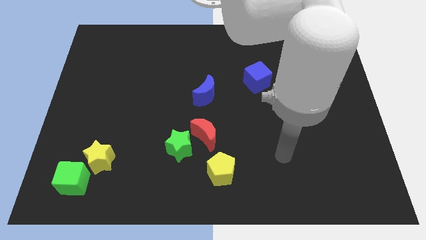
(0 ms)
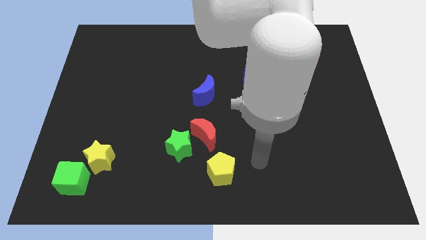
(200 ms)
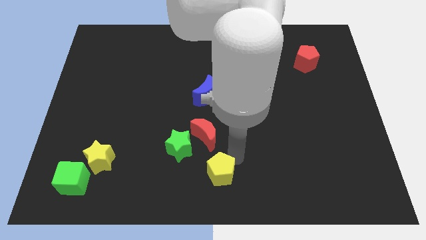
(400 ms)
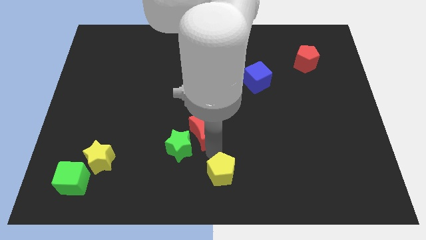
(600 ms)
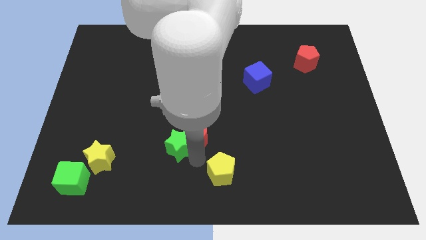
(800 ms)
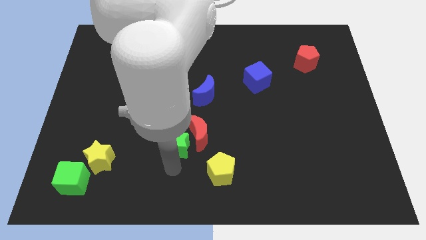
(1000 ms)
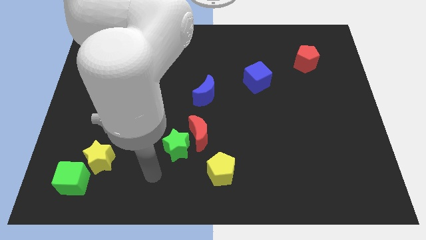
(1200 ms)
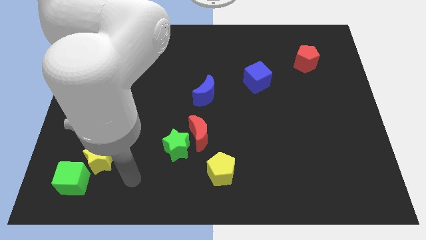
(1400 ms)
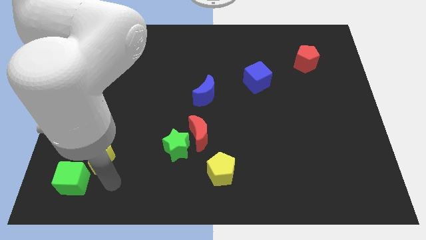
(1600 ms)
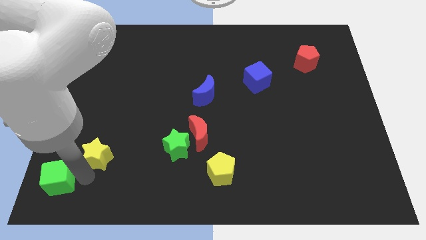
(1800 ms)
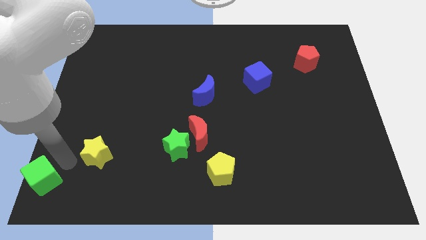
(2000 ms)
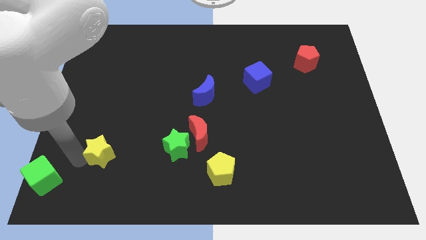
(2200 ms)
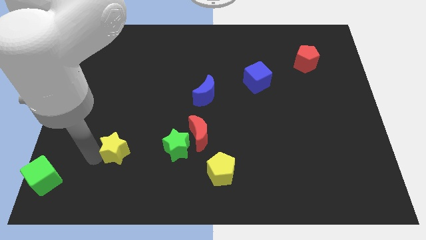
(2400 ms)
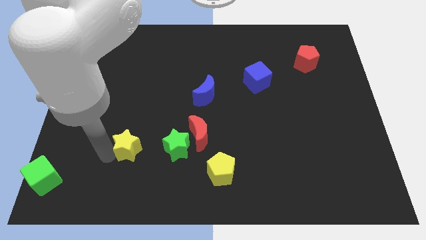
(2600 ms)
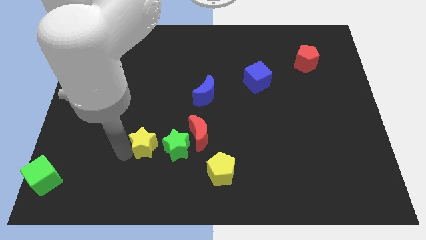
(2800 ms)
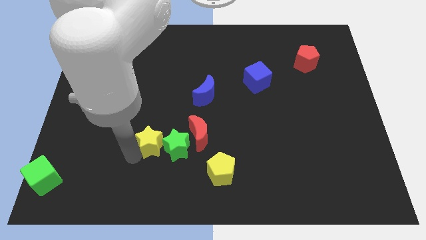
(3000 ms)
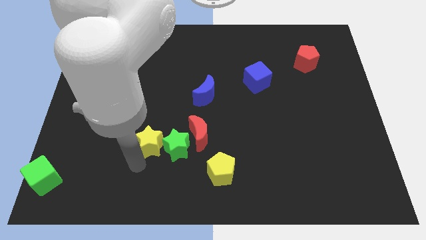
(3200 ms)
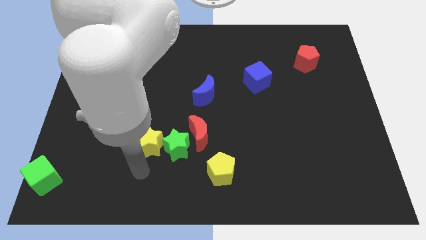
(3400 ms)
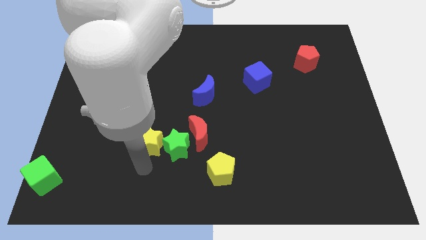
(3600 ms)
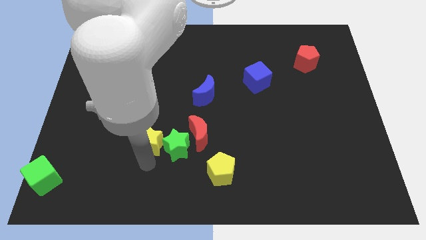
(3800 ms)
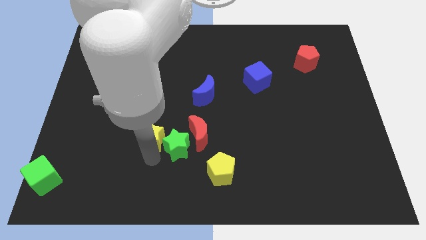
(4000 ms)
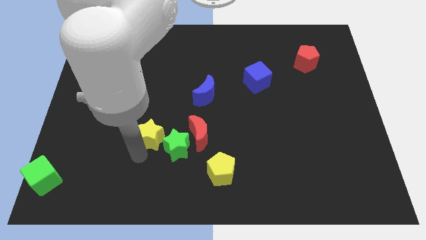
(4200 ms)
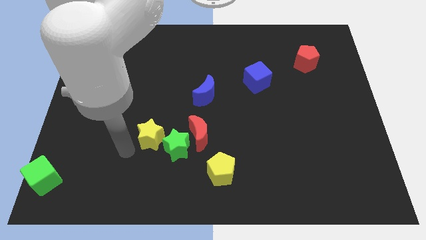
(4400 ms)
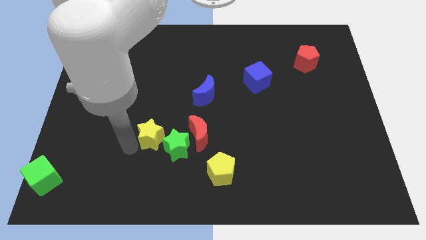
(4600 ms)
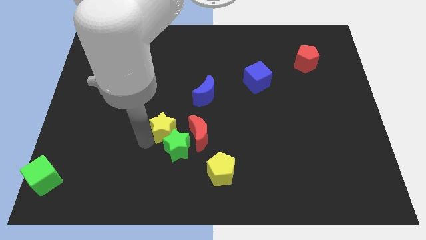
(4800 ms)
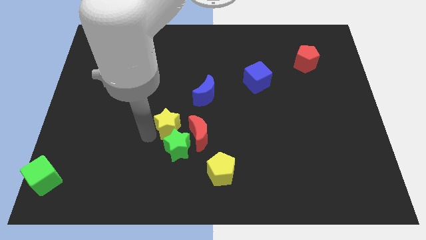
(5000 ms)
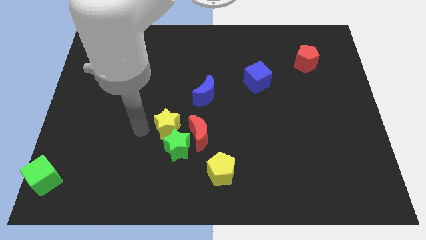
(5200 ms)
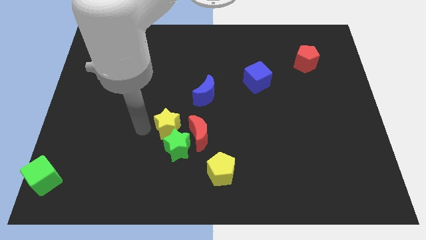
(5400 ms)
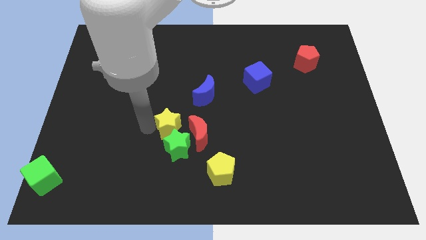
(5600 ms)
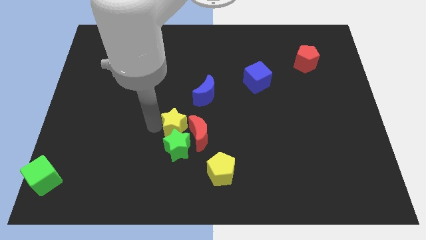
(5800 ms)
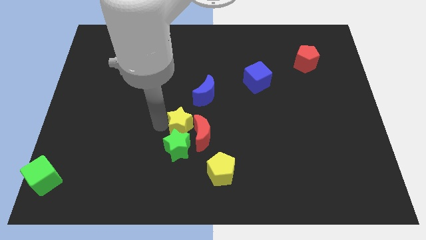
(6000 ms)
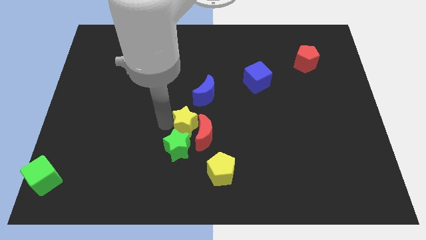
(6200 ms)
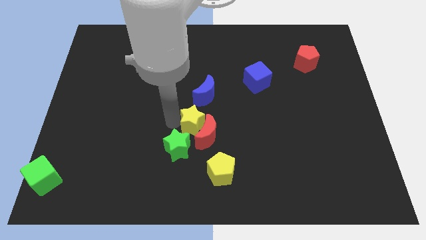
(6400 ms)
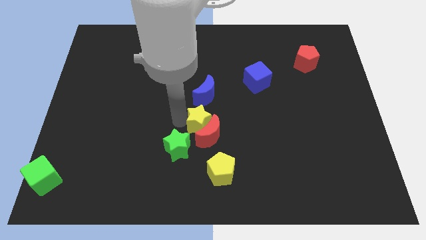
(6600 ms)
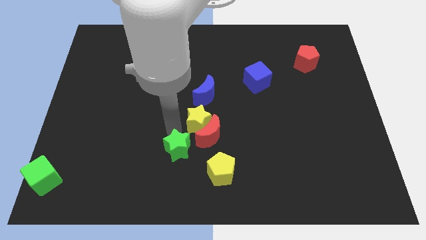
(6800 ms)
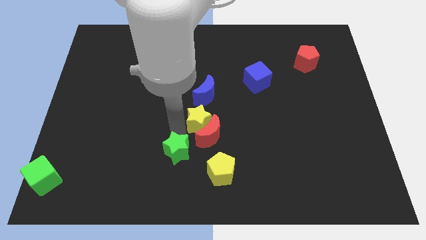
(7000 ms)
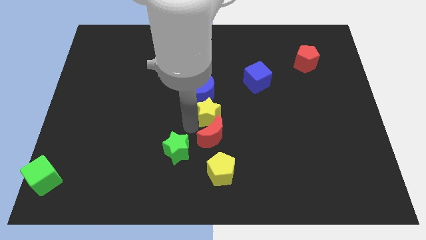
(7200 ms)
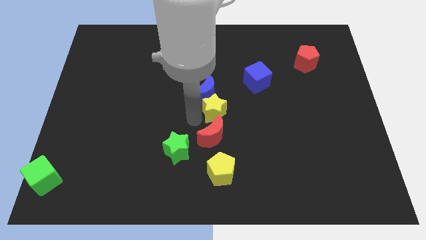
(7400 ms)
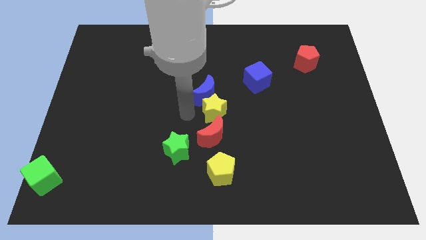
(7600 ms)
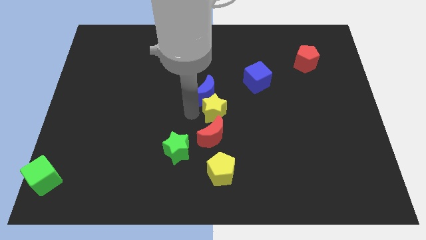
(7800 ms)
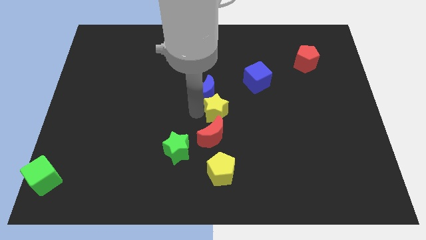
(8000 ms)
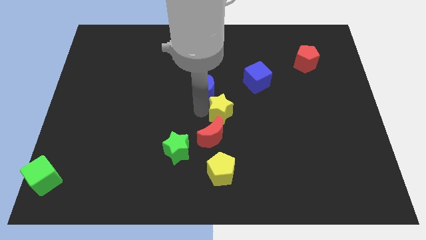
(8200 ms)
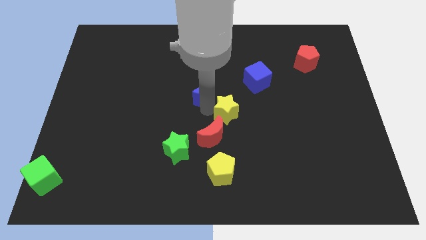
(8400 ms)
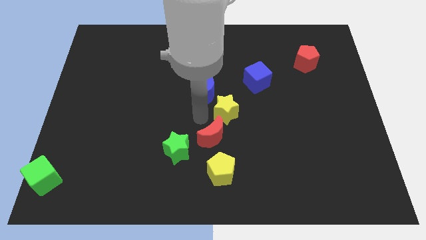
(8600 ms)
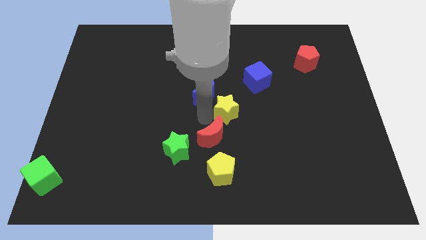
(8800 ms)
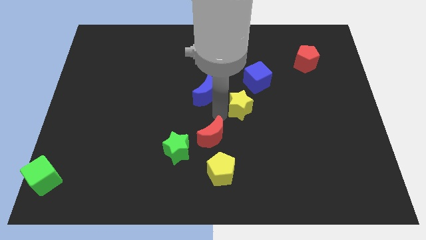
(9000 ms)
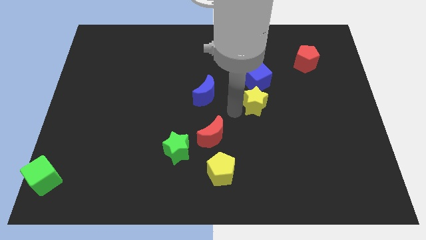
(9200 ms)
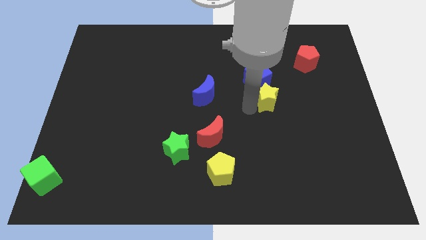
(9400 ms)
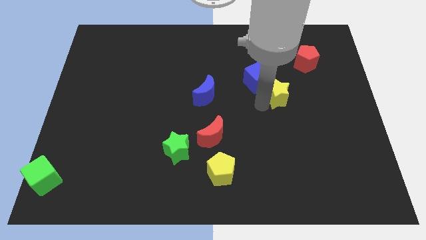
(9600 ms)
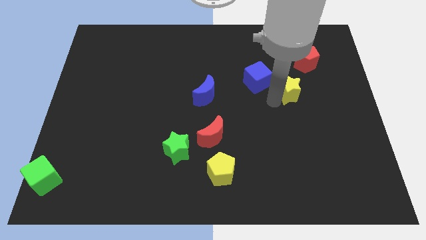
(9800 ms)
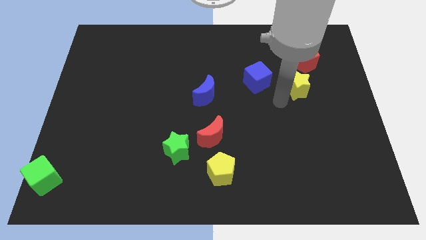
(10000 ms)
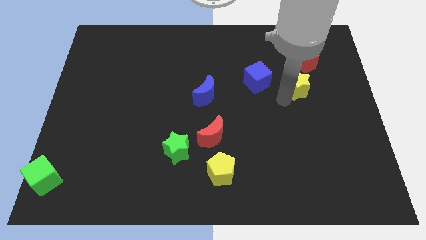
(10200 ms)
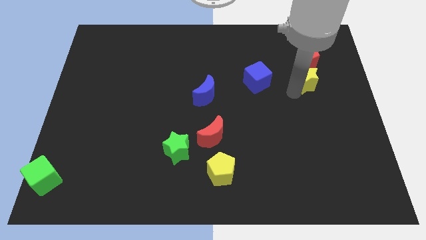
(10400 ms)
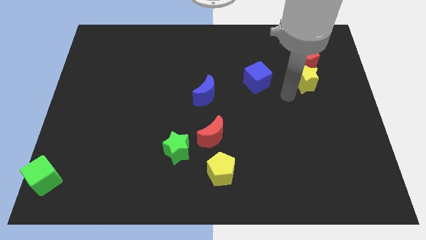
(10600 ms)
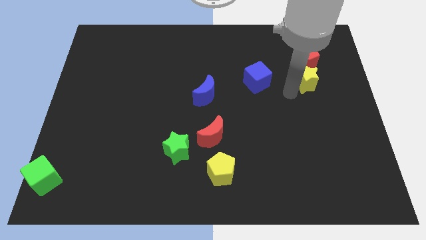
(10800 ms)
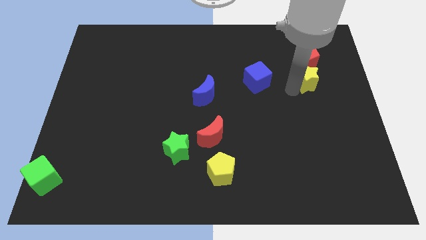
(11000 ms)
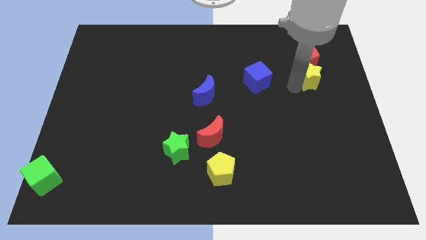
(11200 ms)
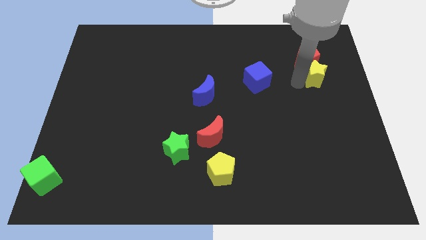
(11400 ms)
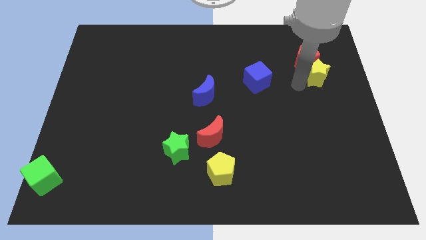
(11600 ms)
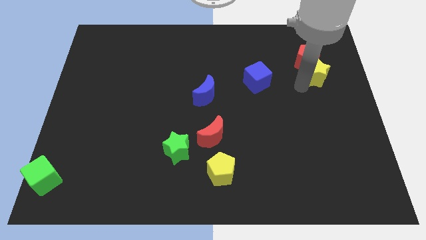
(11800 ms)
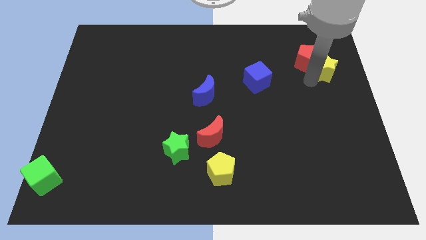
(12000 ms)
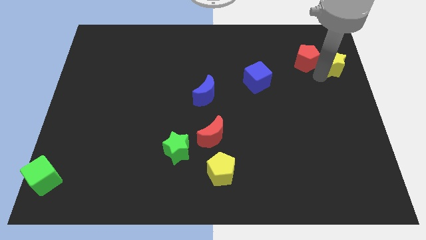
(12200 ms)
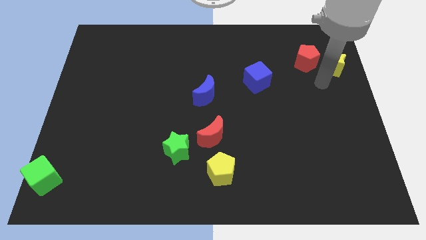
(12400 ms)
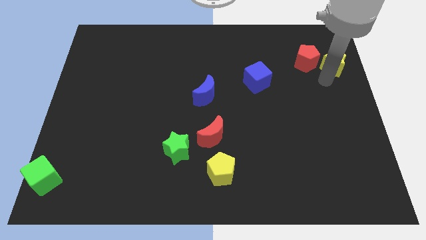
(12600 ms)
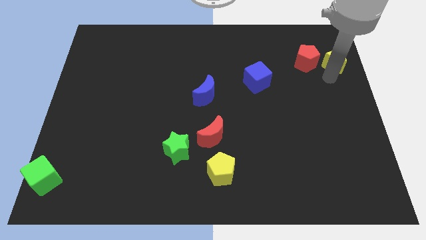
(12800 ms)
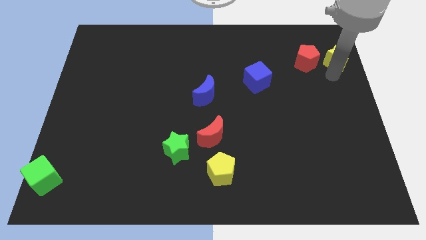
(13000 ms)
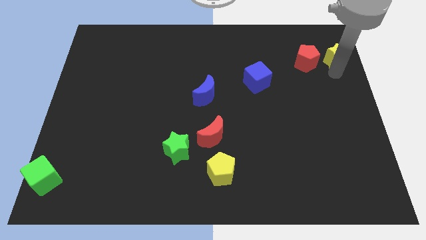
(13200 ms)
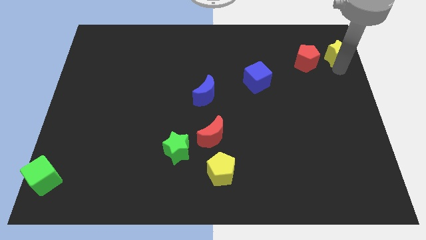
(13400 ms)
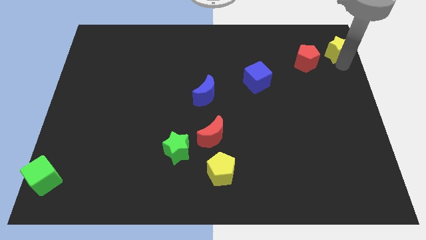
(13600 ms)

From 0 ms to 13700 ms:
slide the yellow star to the upper right corner
